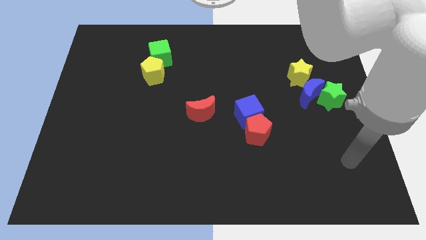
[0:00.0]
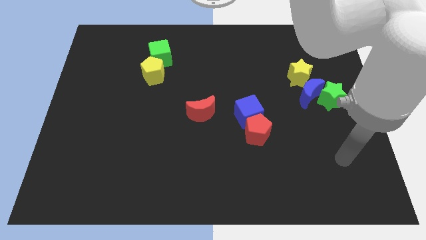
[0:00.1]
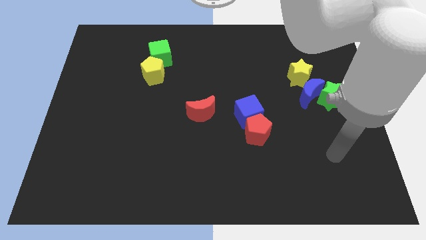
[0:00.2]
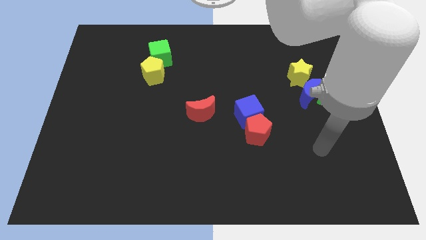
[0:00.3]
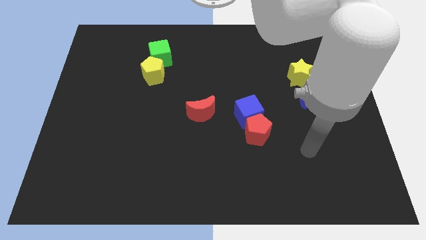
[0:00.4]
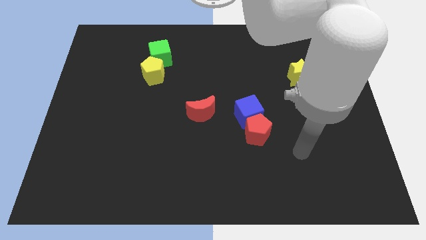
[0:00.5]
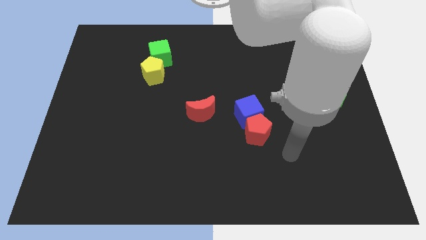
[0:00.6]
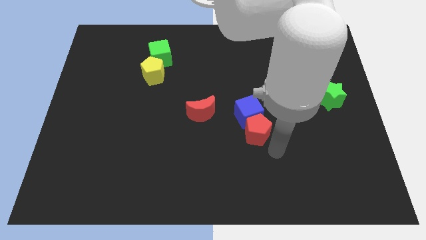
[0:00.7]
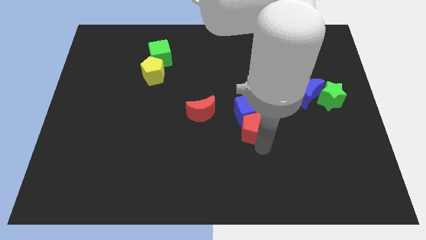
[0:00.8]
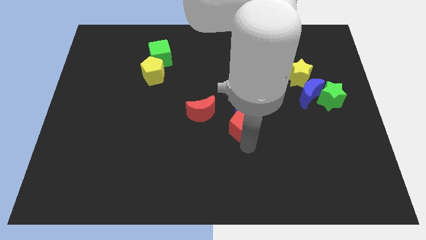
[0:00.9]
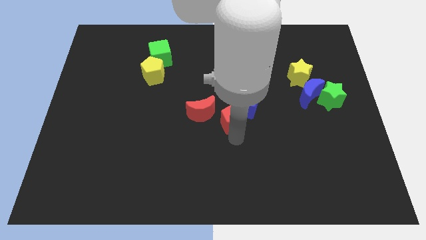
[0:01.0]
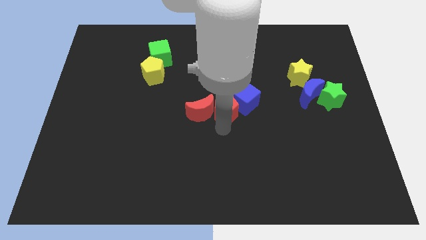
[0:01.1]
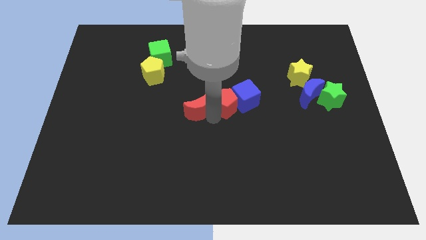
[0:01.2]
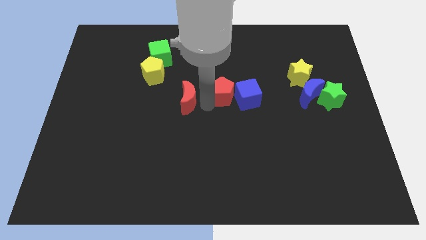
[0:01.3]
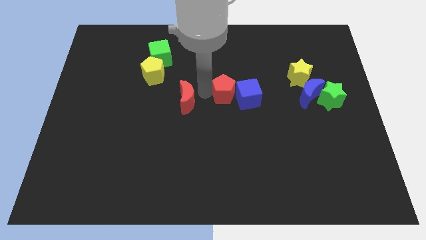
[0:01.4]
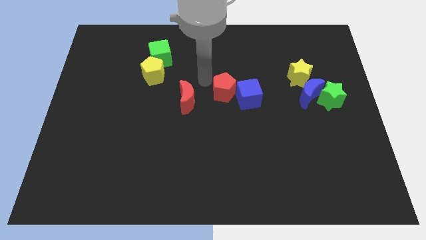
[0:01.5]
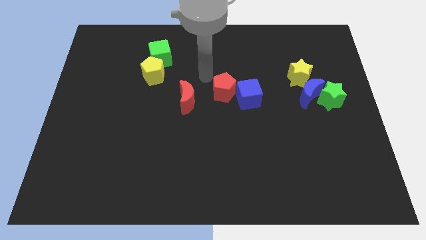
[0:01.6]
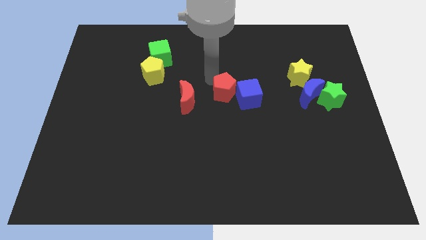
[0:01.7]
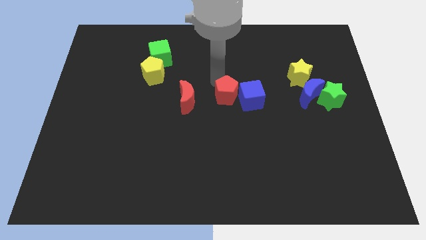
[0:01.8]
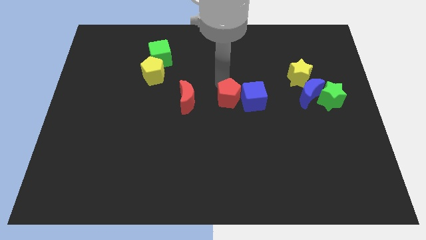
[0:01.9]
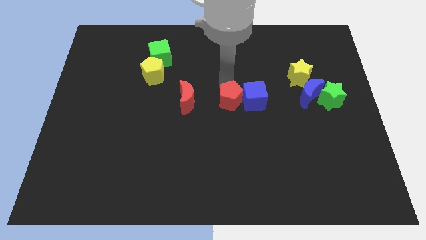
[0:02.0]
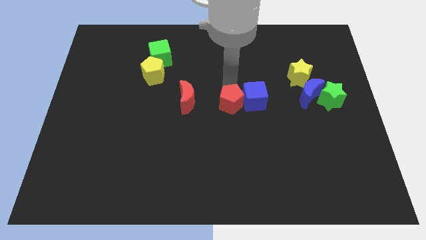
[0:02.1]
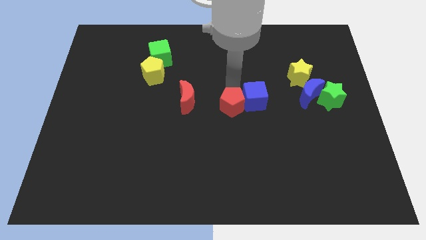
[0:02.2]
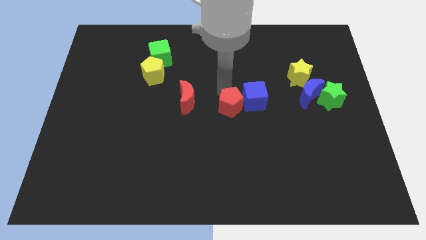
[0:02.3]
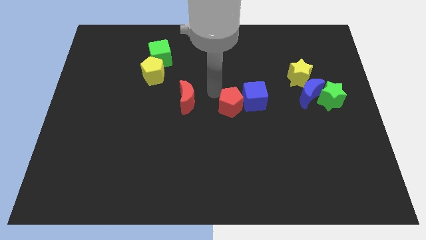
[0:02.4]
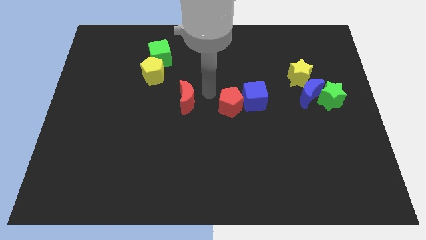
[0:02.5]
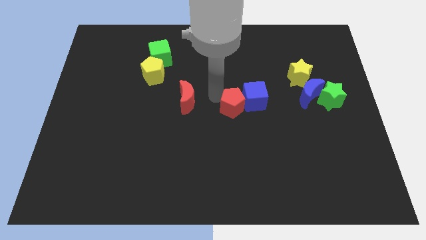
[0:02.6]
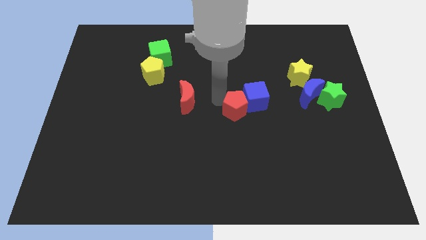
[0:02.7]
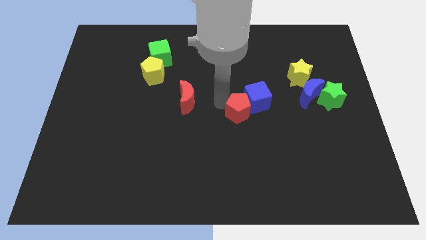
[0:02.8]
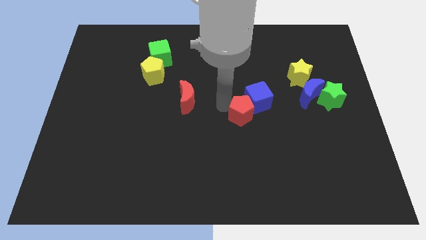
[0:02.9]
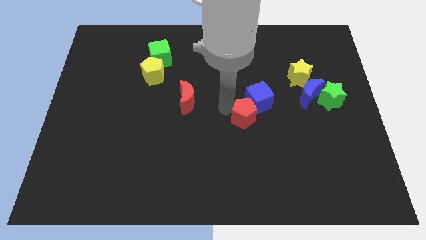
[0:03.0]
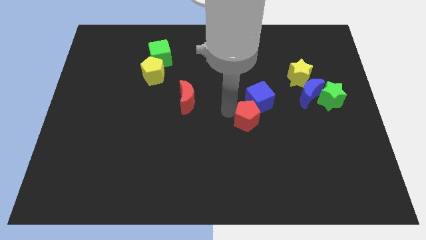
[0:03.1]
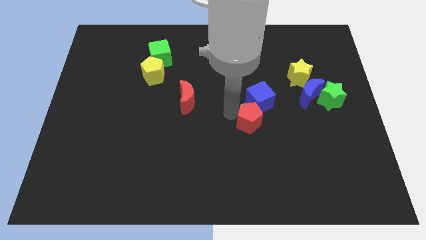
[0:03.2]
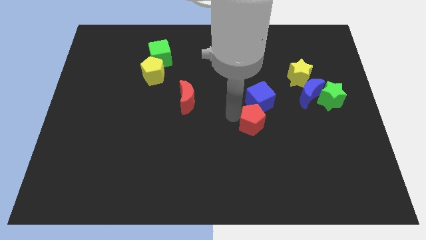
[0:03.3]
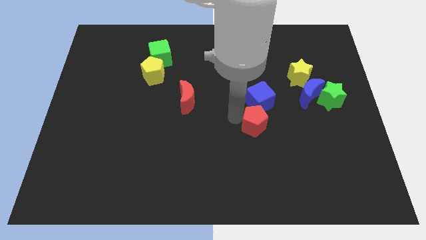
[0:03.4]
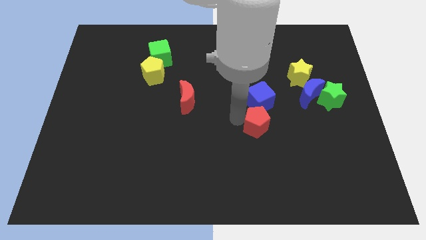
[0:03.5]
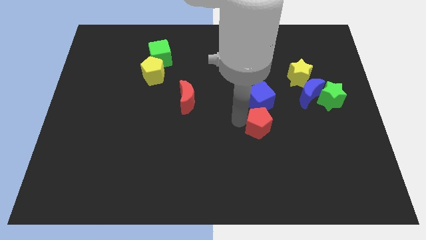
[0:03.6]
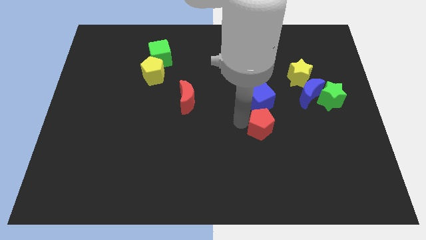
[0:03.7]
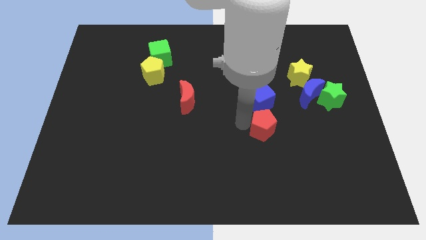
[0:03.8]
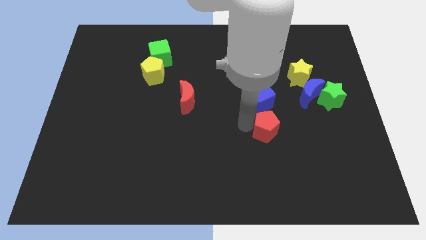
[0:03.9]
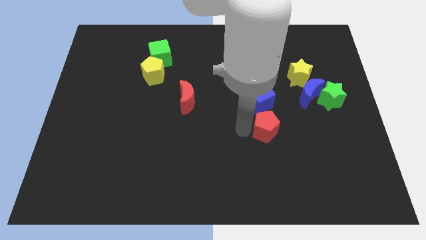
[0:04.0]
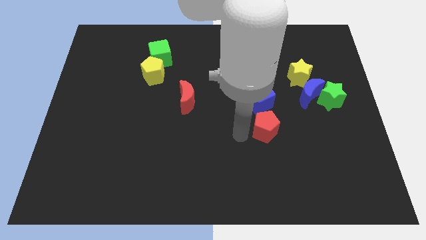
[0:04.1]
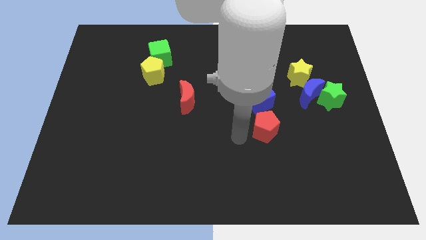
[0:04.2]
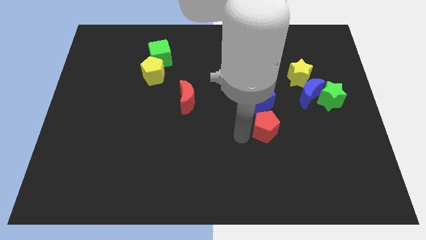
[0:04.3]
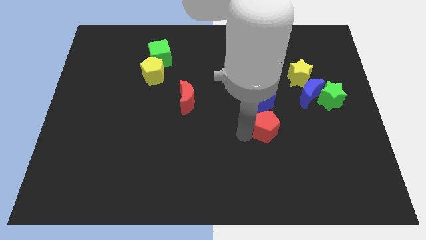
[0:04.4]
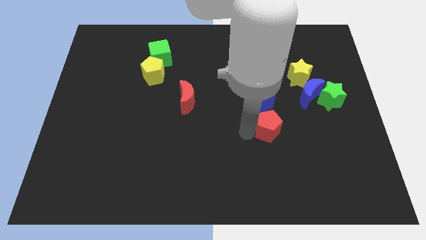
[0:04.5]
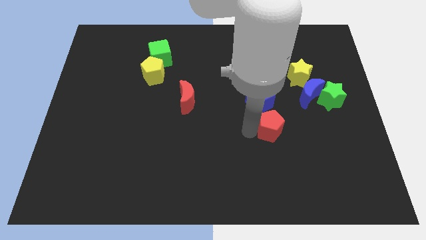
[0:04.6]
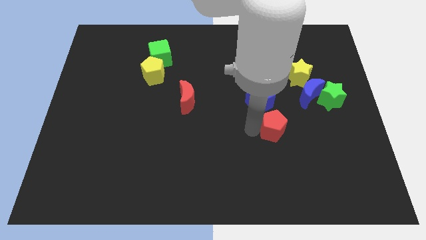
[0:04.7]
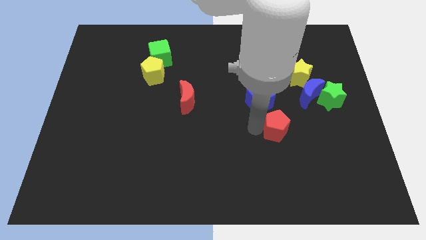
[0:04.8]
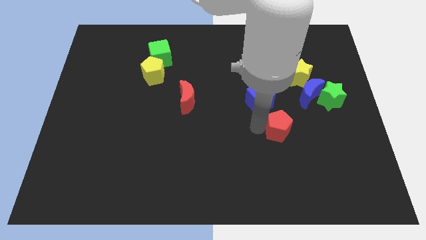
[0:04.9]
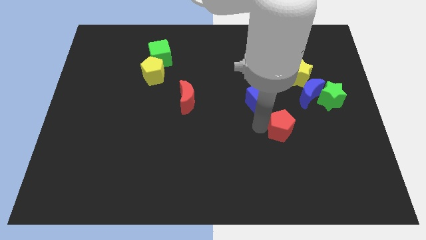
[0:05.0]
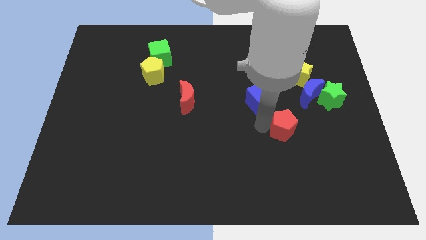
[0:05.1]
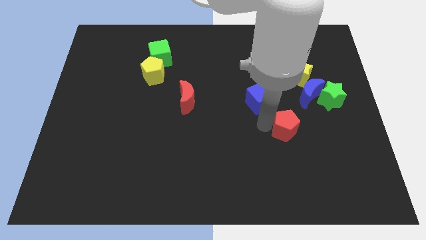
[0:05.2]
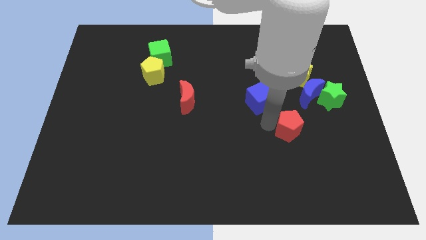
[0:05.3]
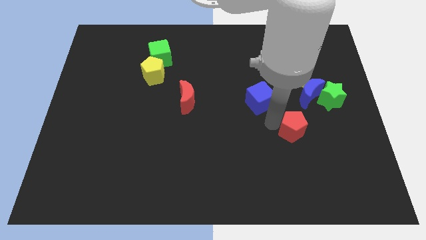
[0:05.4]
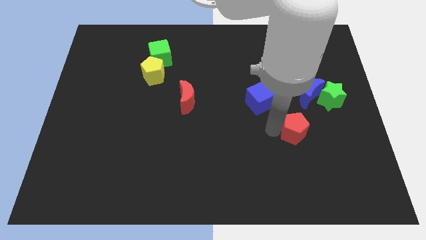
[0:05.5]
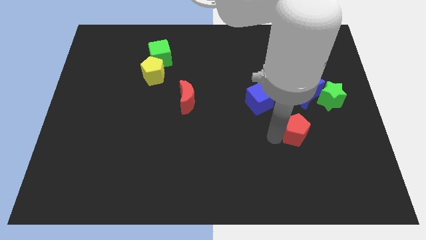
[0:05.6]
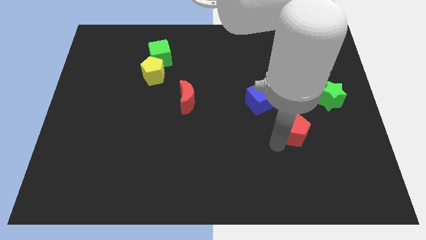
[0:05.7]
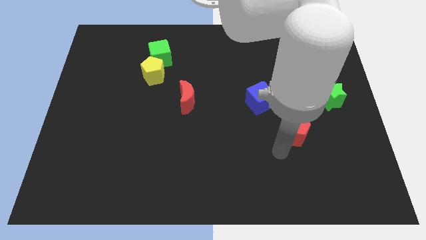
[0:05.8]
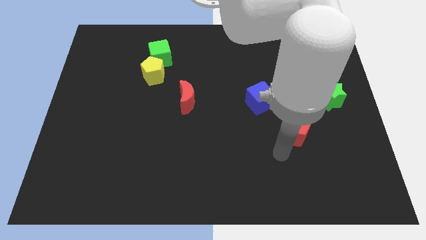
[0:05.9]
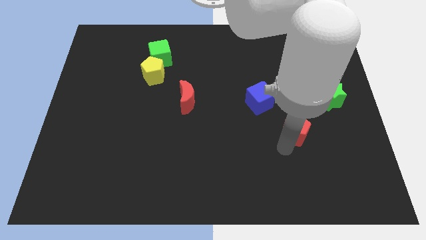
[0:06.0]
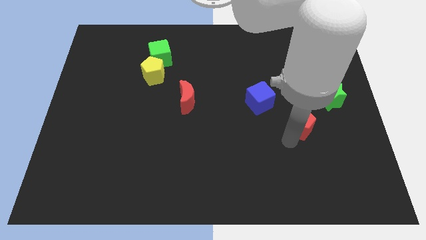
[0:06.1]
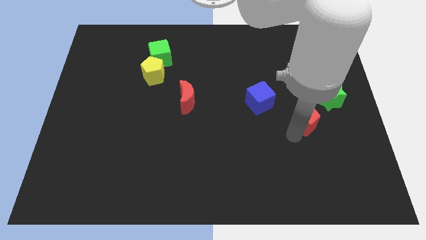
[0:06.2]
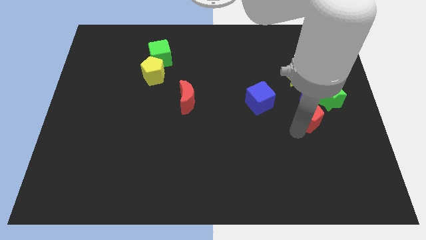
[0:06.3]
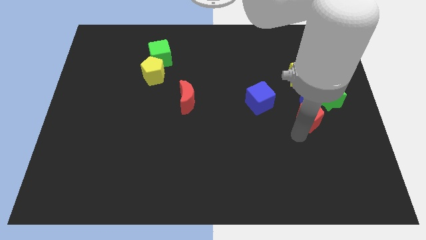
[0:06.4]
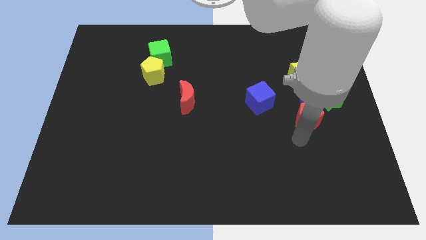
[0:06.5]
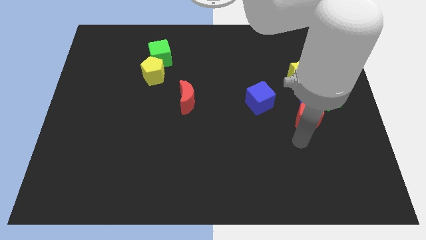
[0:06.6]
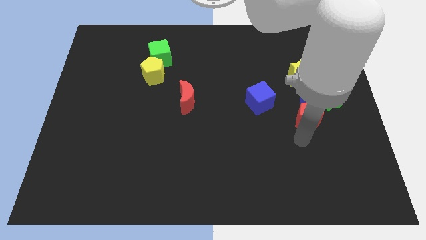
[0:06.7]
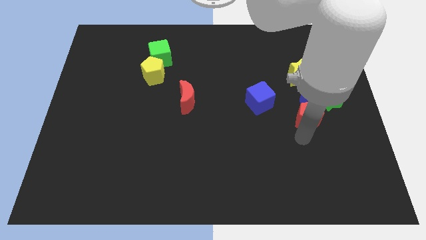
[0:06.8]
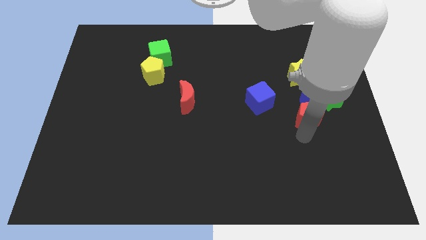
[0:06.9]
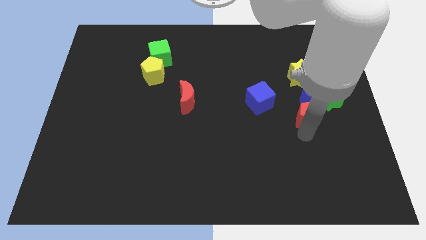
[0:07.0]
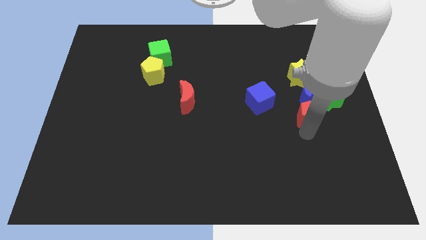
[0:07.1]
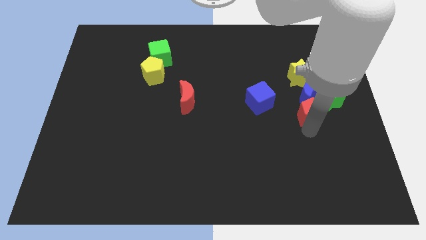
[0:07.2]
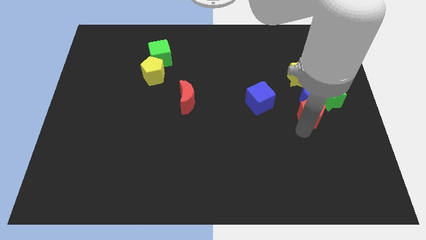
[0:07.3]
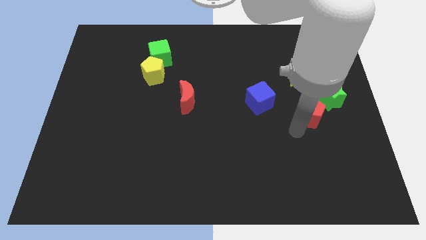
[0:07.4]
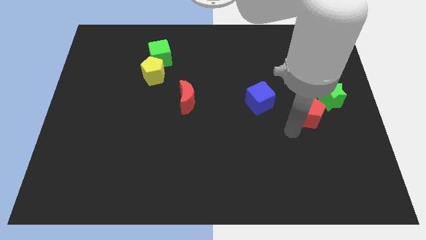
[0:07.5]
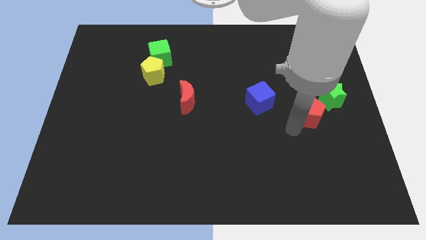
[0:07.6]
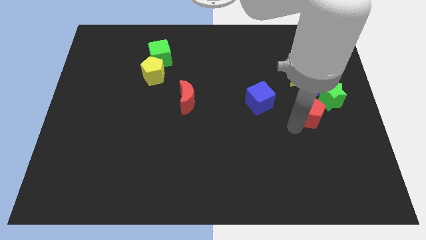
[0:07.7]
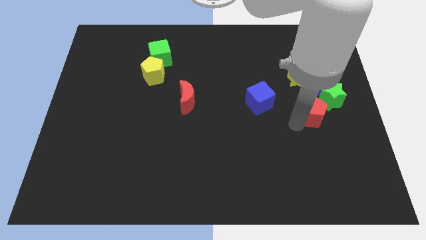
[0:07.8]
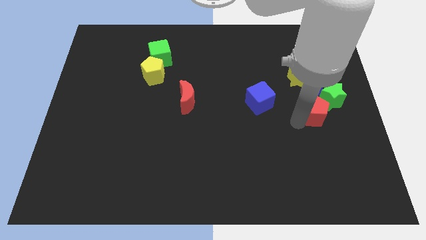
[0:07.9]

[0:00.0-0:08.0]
move the red pentagon to the green star
